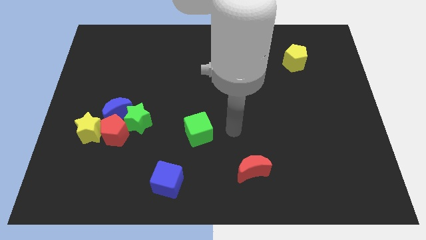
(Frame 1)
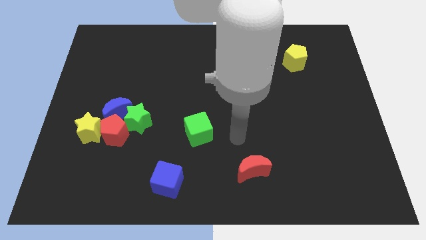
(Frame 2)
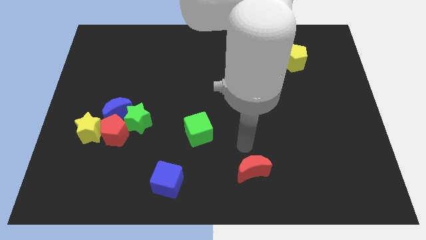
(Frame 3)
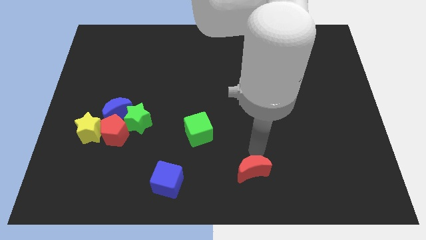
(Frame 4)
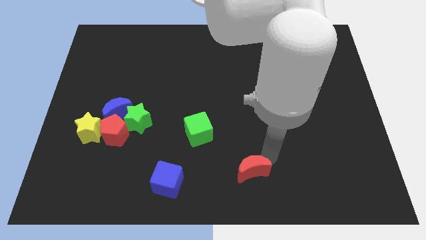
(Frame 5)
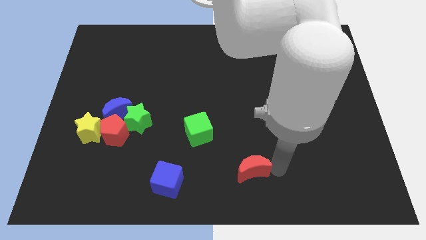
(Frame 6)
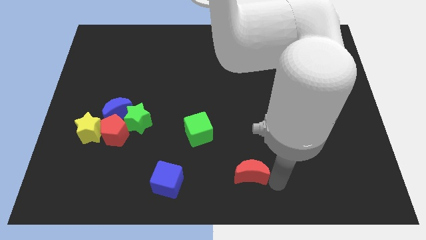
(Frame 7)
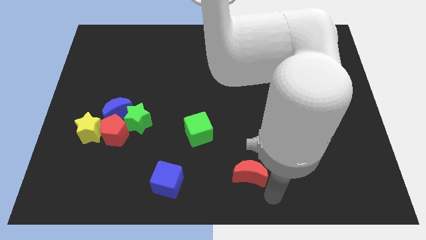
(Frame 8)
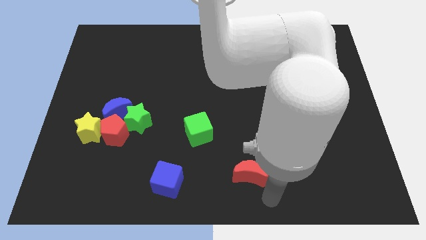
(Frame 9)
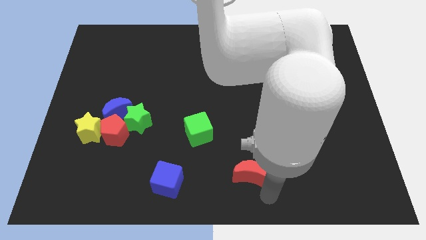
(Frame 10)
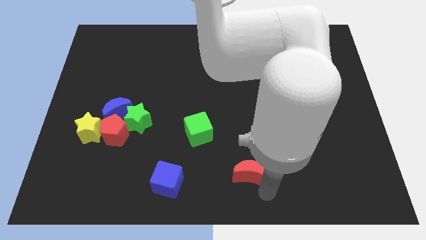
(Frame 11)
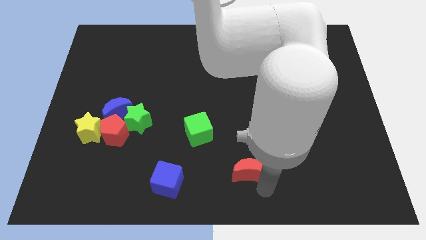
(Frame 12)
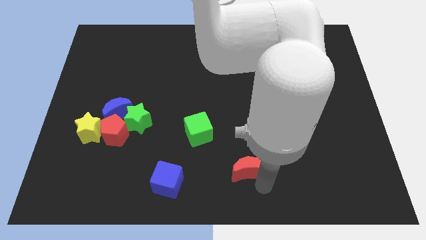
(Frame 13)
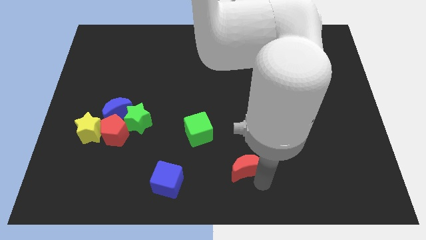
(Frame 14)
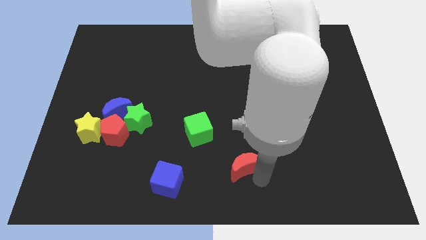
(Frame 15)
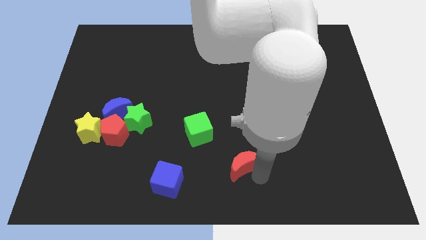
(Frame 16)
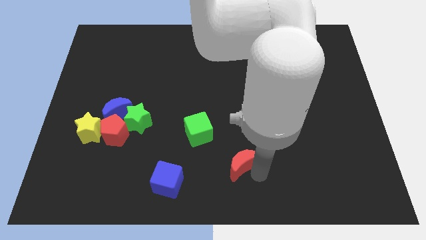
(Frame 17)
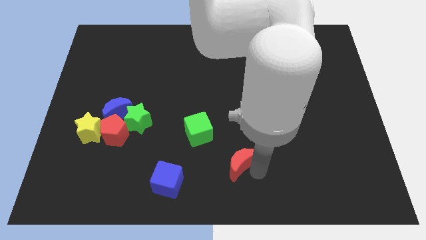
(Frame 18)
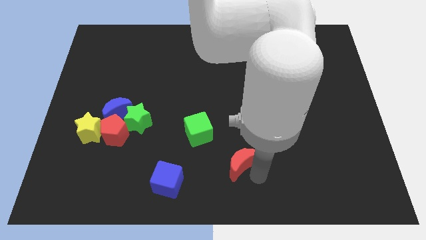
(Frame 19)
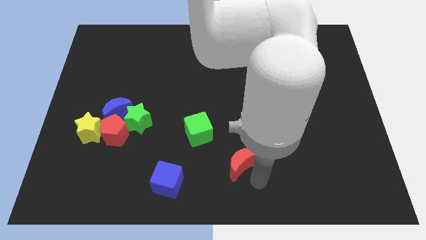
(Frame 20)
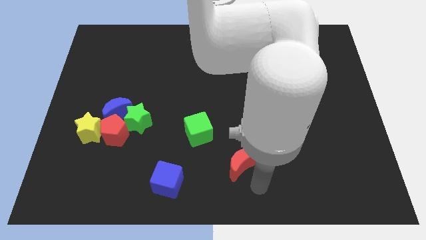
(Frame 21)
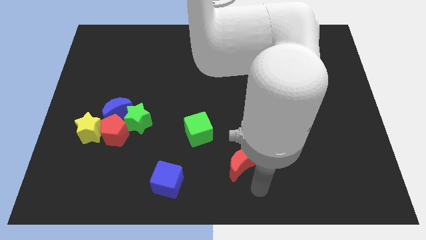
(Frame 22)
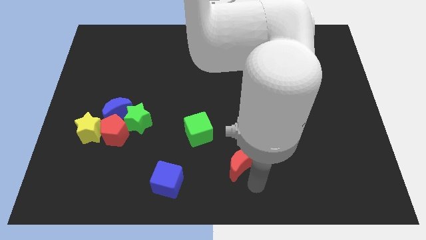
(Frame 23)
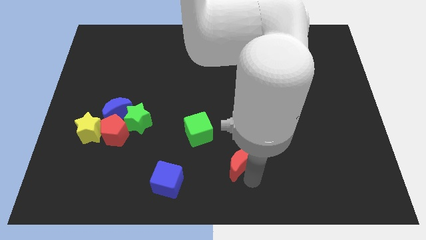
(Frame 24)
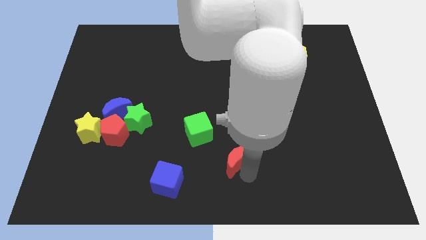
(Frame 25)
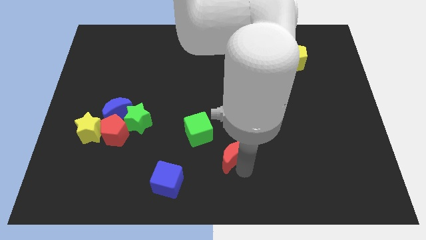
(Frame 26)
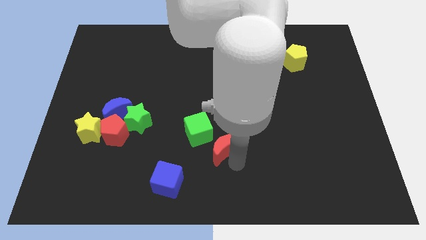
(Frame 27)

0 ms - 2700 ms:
slightly move the red moon diagonally up and to the left

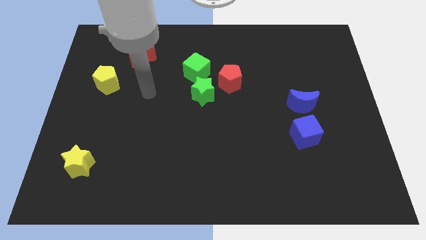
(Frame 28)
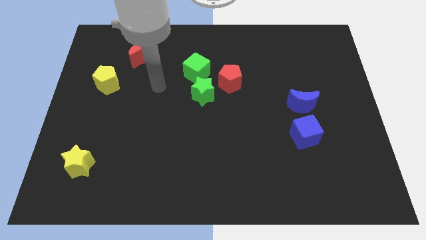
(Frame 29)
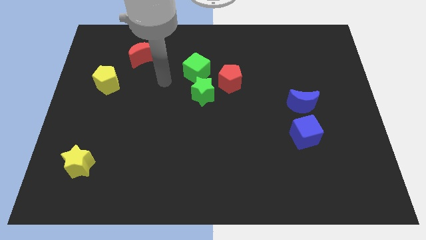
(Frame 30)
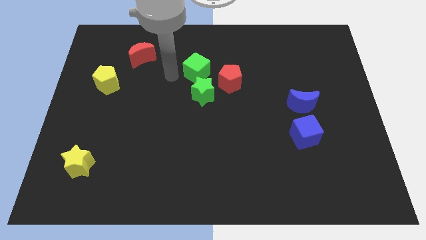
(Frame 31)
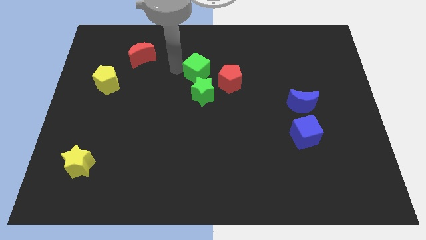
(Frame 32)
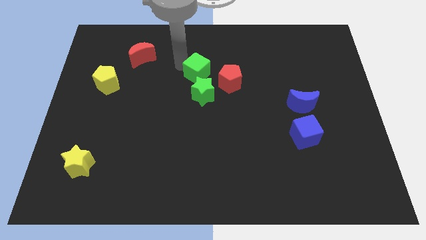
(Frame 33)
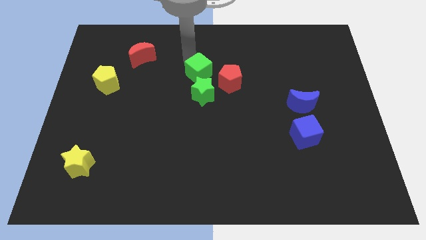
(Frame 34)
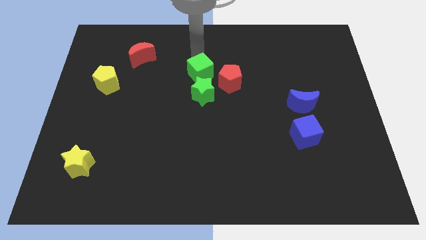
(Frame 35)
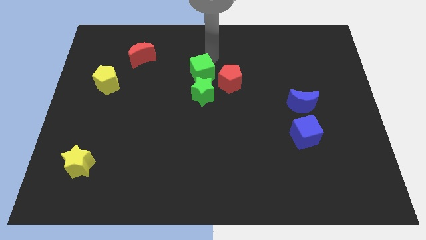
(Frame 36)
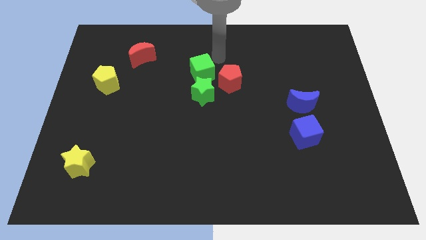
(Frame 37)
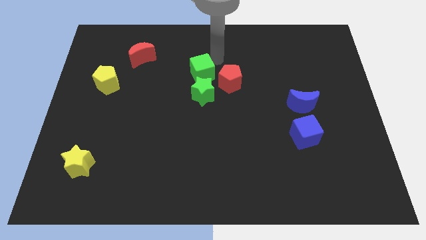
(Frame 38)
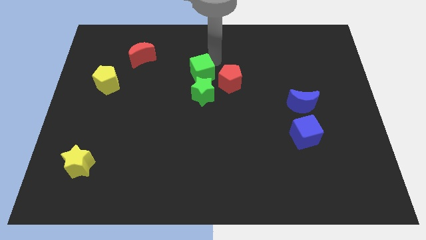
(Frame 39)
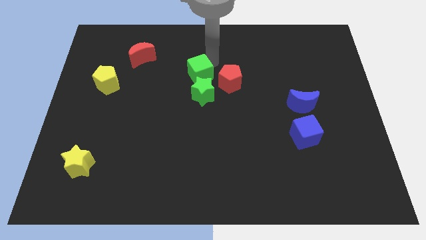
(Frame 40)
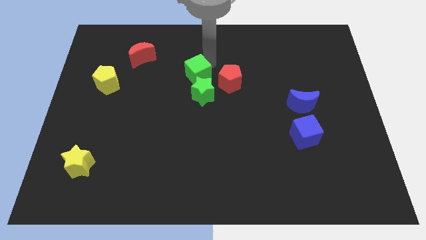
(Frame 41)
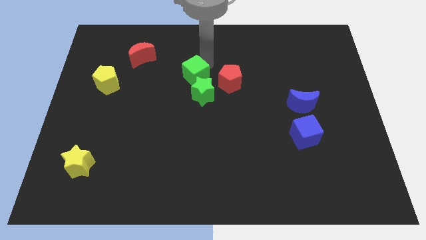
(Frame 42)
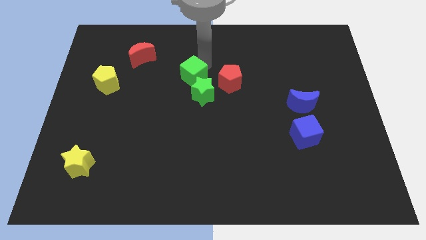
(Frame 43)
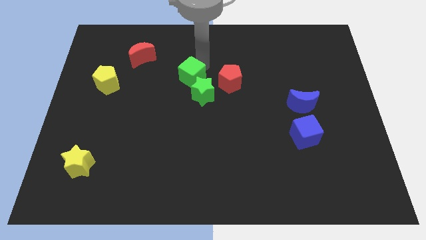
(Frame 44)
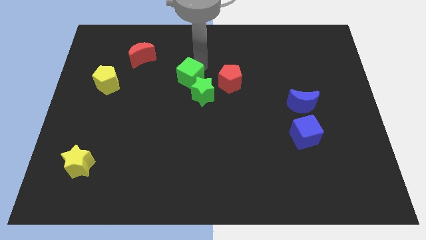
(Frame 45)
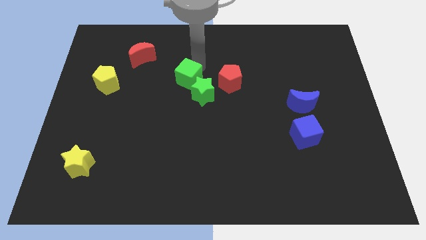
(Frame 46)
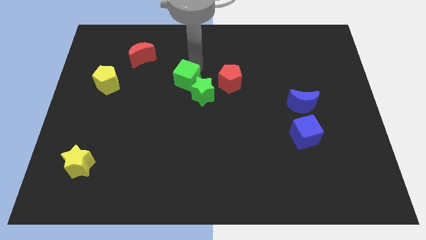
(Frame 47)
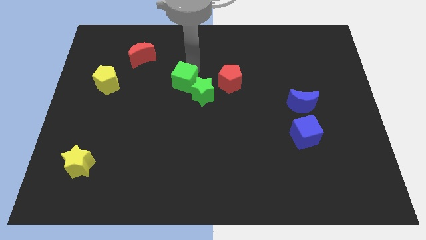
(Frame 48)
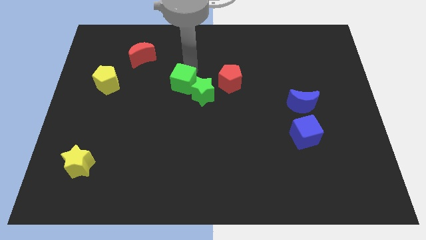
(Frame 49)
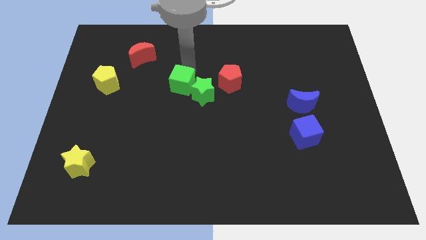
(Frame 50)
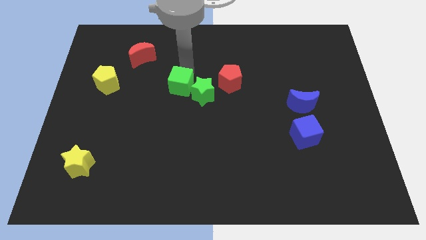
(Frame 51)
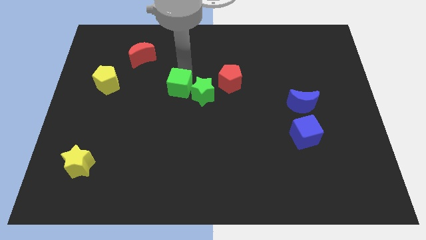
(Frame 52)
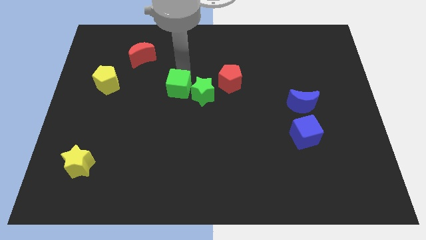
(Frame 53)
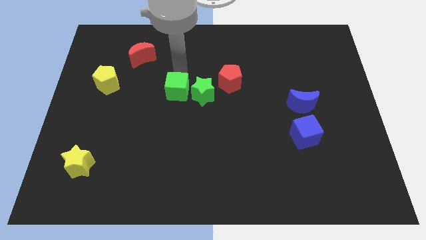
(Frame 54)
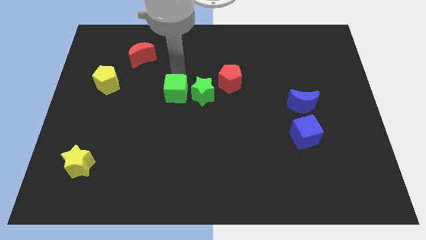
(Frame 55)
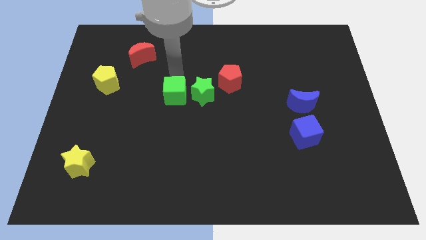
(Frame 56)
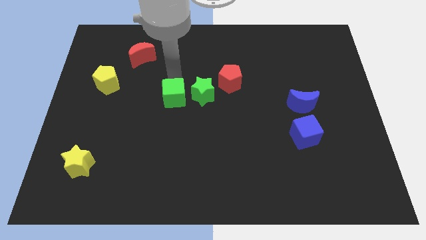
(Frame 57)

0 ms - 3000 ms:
move the green cube downwards a little bit

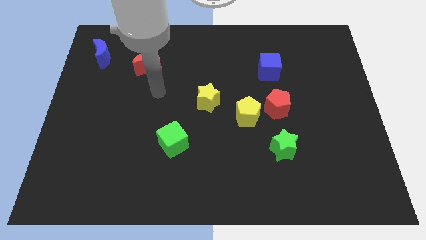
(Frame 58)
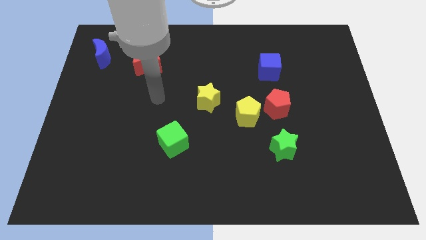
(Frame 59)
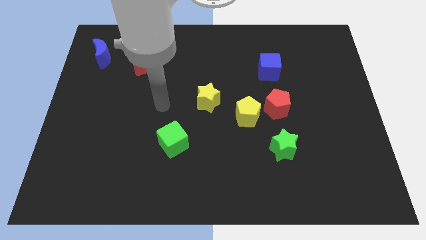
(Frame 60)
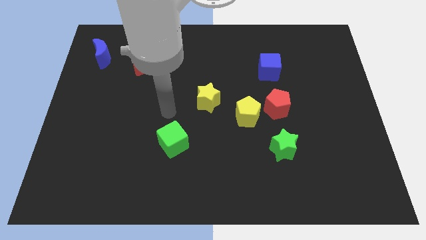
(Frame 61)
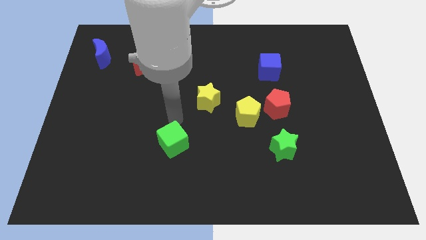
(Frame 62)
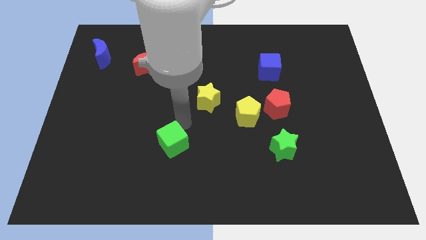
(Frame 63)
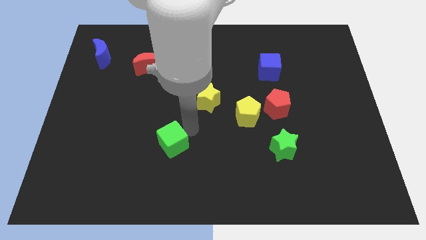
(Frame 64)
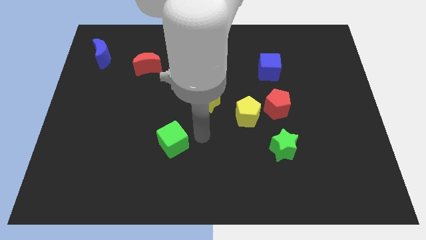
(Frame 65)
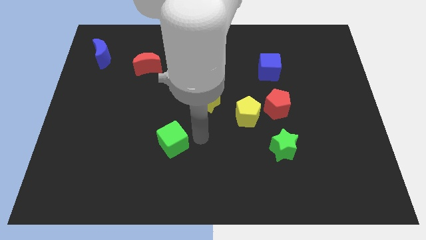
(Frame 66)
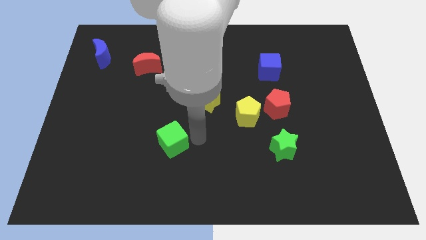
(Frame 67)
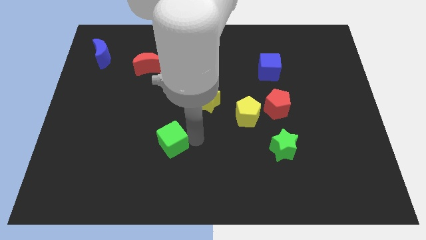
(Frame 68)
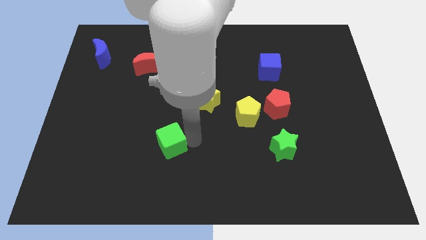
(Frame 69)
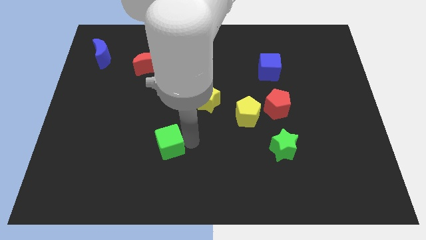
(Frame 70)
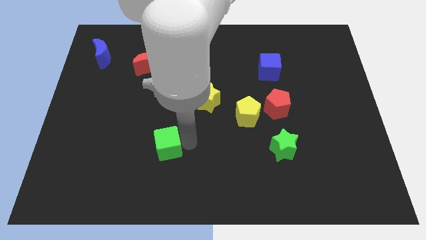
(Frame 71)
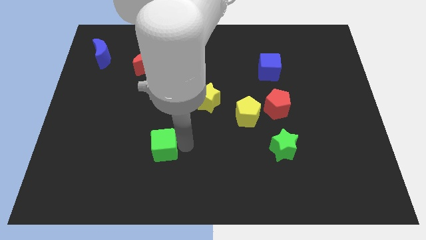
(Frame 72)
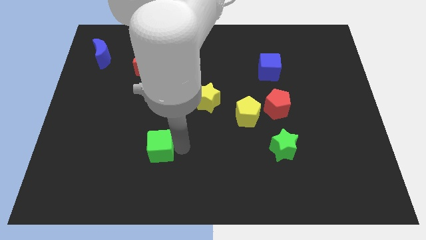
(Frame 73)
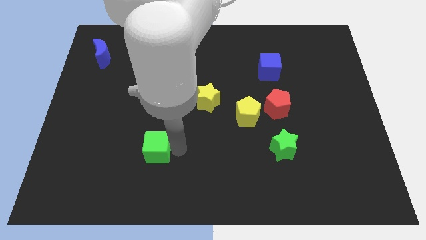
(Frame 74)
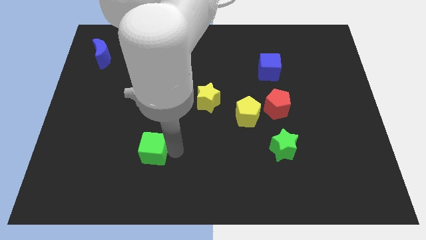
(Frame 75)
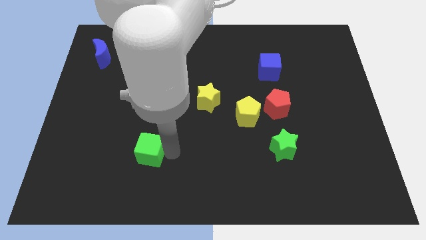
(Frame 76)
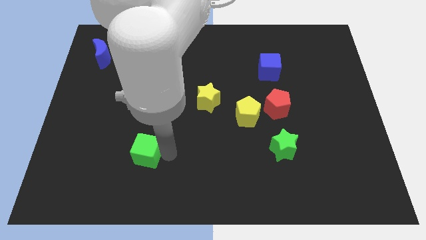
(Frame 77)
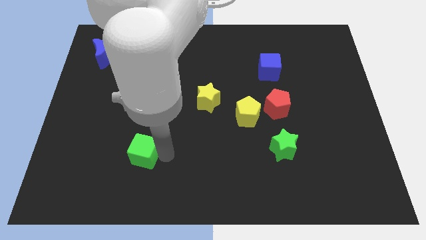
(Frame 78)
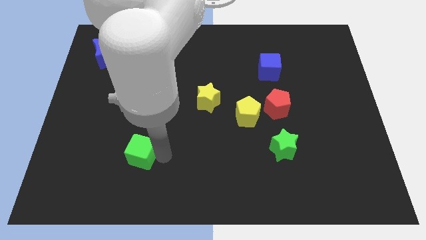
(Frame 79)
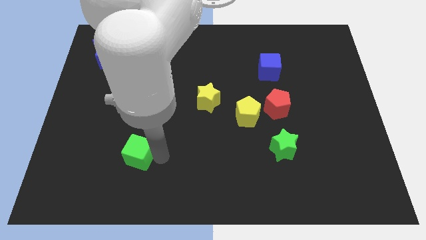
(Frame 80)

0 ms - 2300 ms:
move the green cube left a bit
